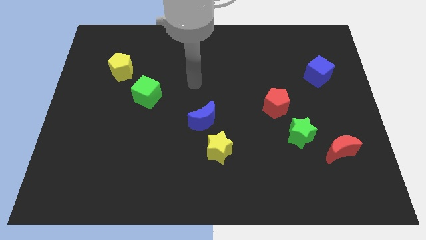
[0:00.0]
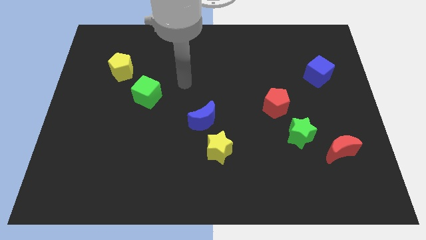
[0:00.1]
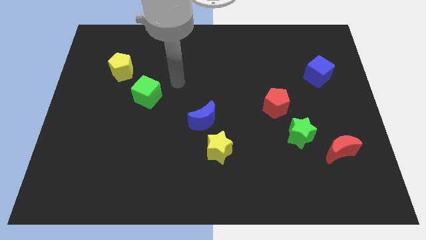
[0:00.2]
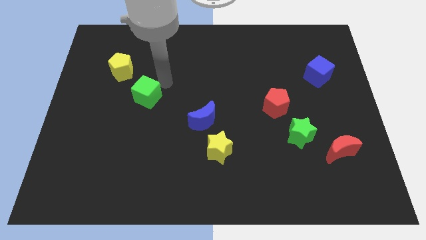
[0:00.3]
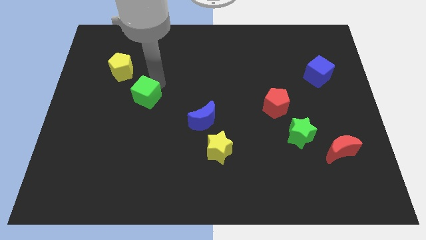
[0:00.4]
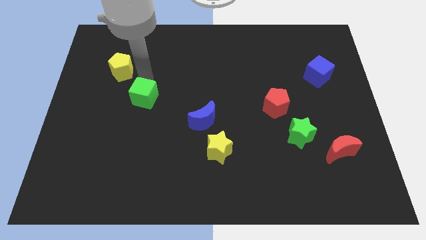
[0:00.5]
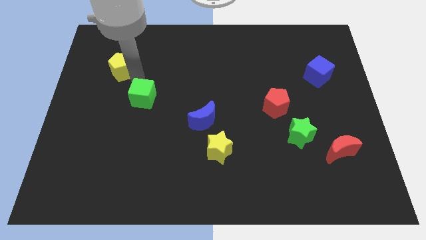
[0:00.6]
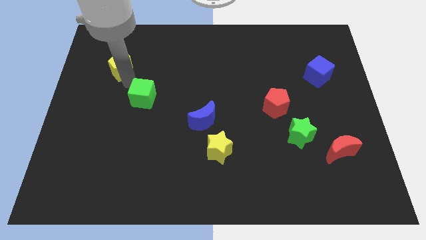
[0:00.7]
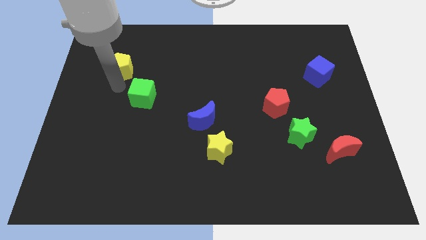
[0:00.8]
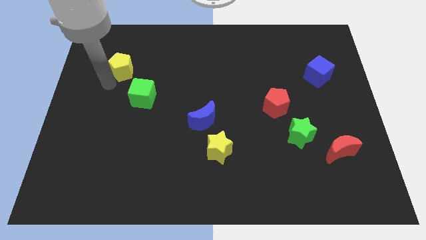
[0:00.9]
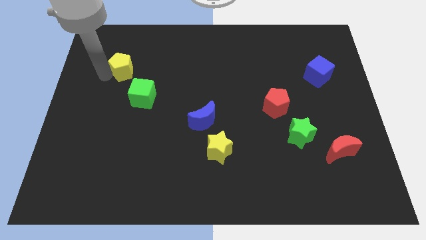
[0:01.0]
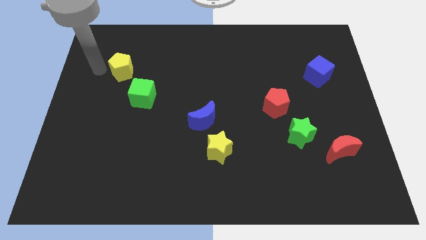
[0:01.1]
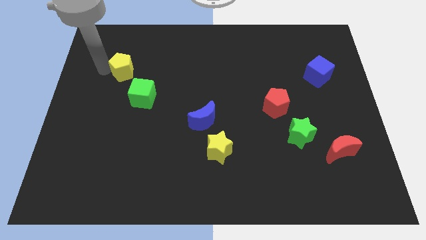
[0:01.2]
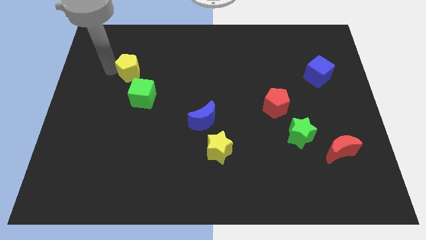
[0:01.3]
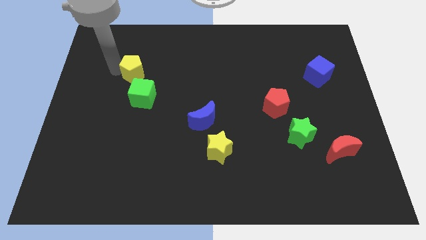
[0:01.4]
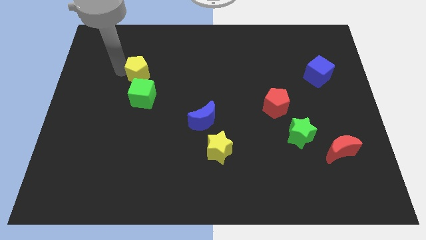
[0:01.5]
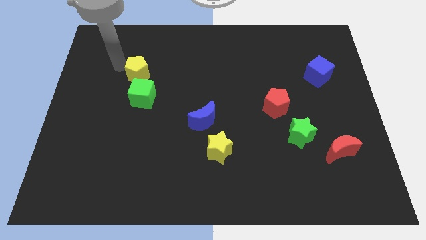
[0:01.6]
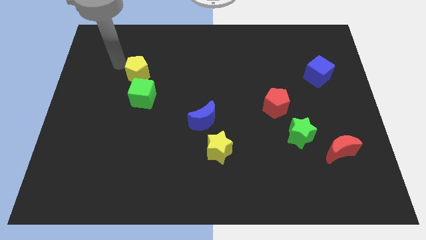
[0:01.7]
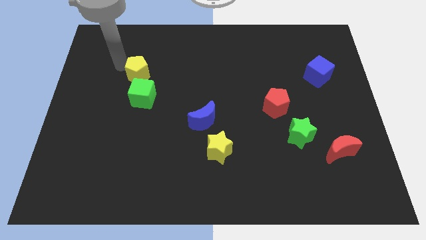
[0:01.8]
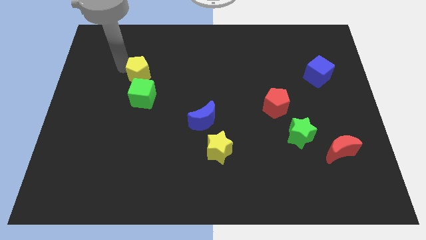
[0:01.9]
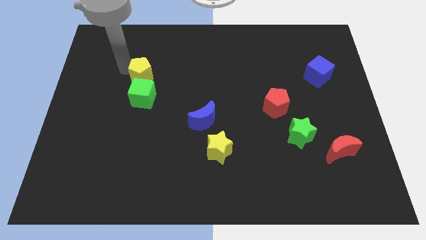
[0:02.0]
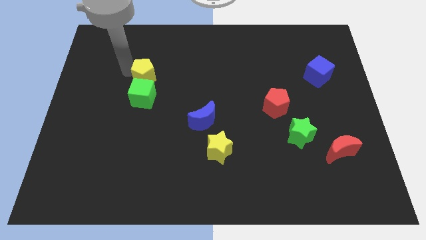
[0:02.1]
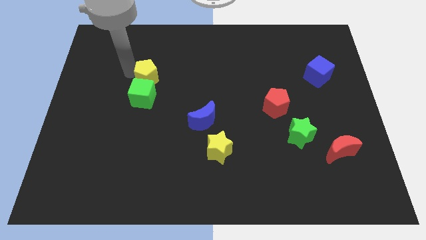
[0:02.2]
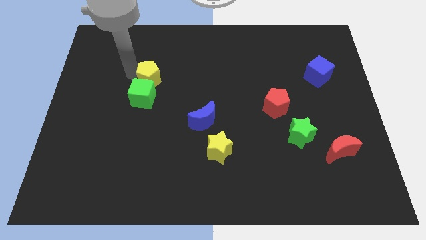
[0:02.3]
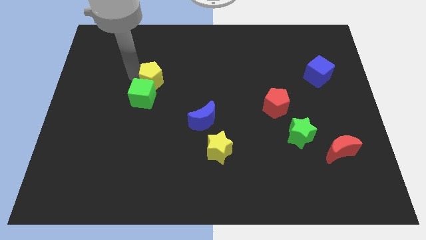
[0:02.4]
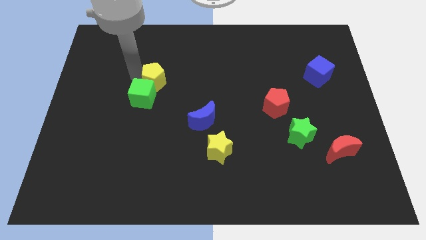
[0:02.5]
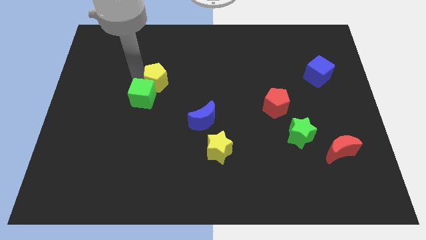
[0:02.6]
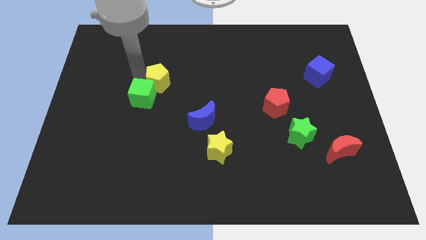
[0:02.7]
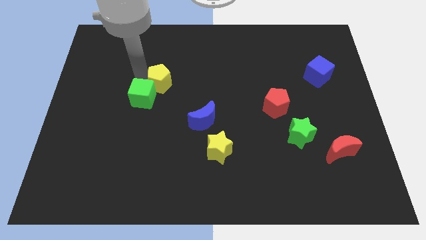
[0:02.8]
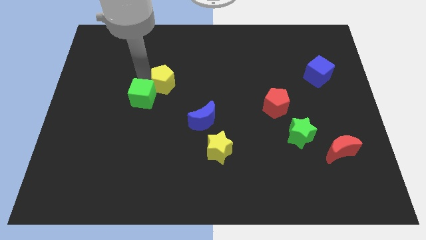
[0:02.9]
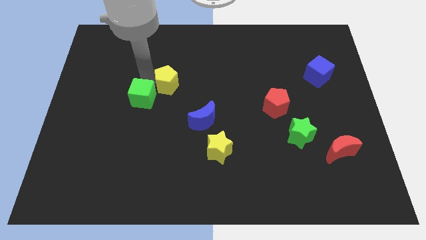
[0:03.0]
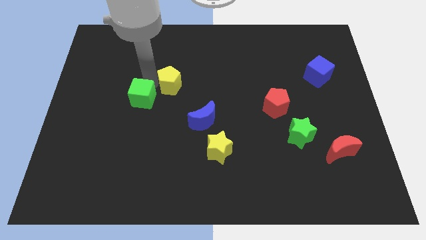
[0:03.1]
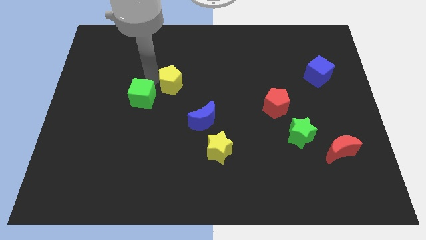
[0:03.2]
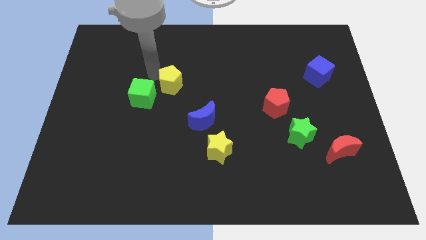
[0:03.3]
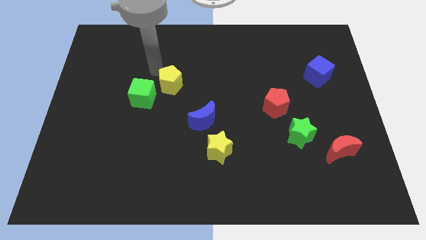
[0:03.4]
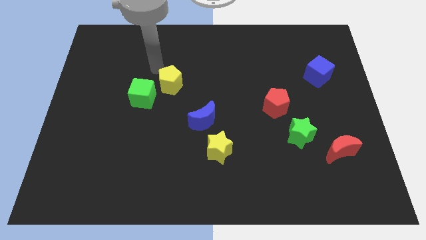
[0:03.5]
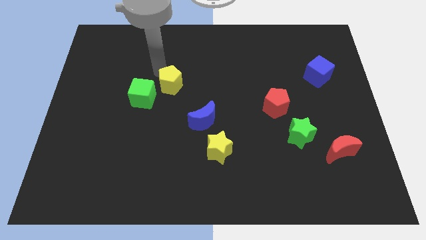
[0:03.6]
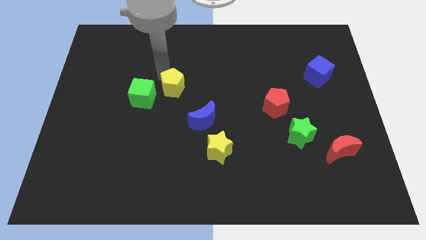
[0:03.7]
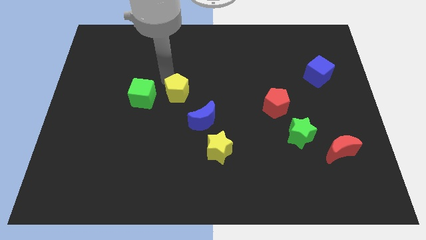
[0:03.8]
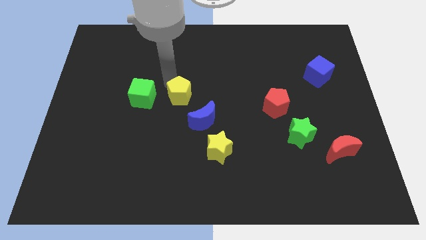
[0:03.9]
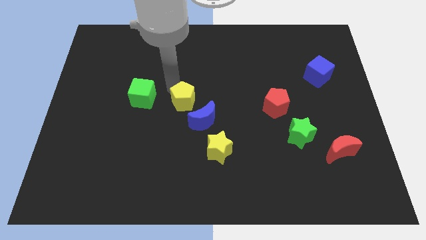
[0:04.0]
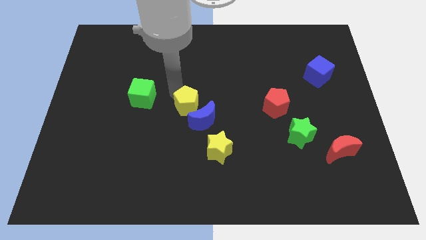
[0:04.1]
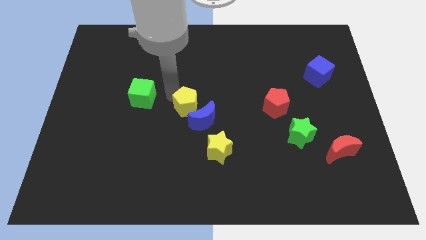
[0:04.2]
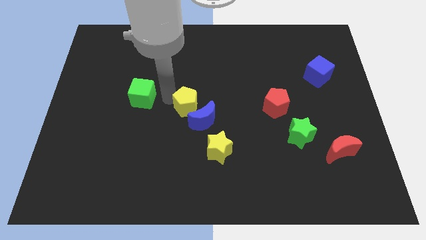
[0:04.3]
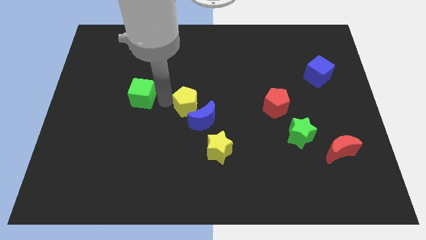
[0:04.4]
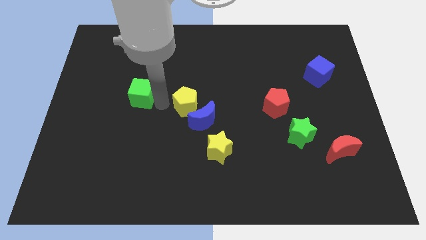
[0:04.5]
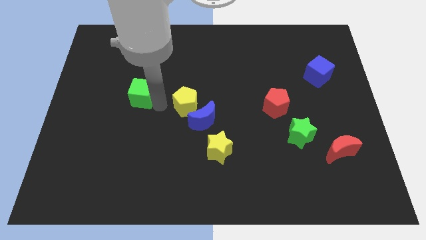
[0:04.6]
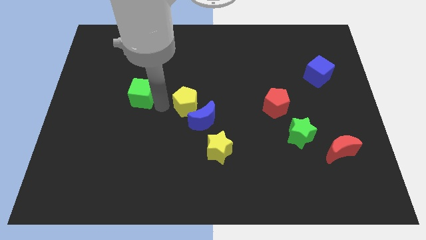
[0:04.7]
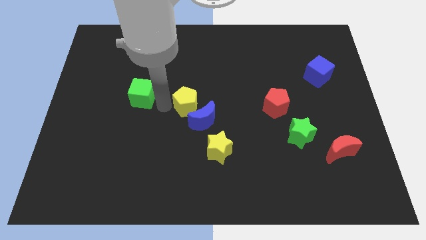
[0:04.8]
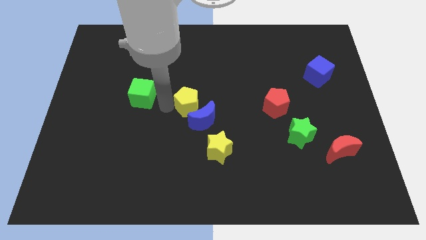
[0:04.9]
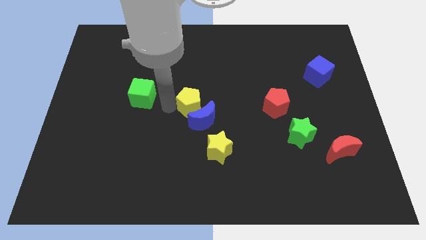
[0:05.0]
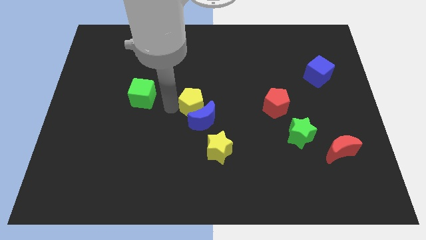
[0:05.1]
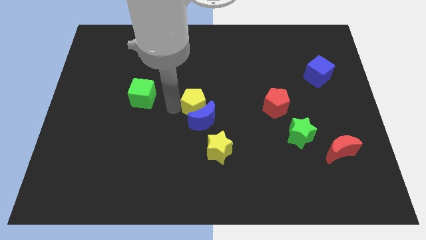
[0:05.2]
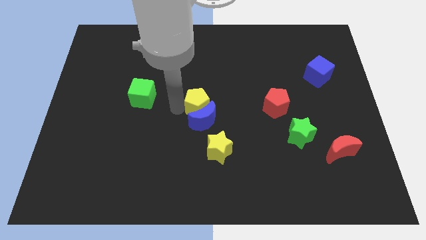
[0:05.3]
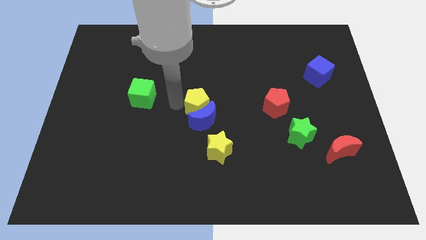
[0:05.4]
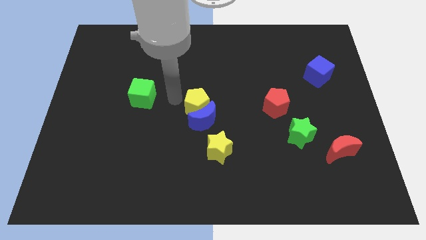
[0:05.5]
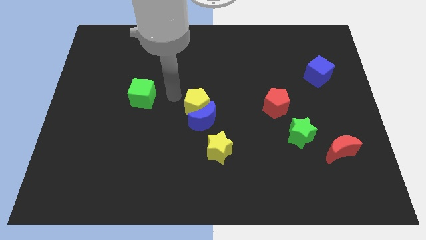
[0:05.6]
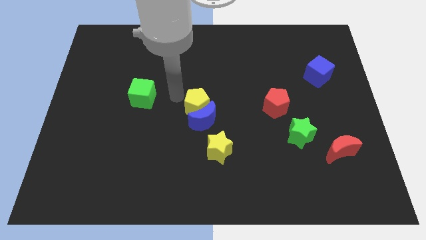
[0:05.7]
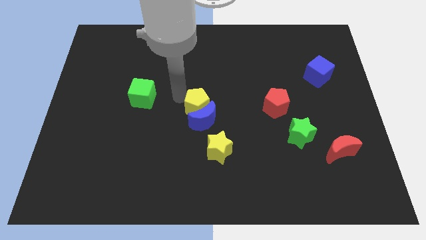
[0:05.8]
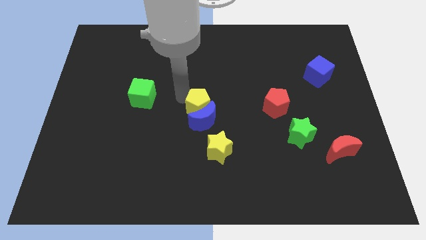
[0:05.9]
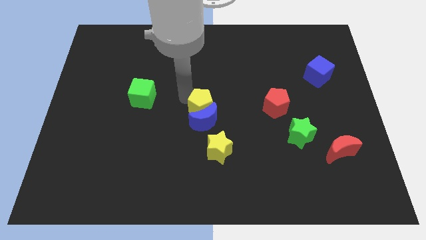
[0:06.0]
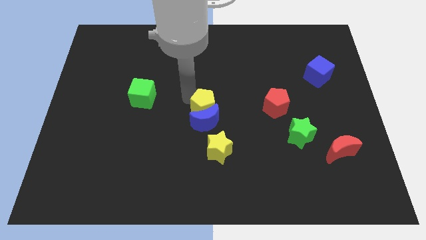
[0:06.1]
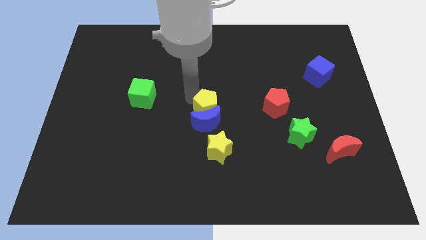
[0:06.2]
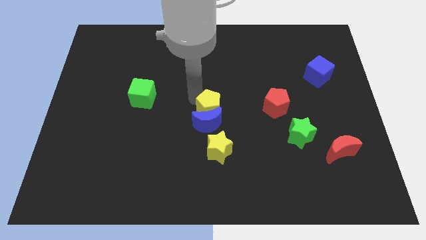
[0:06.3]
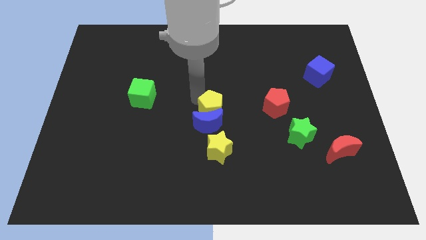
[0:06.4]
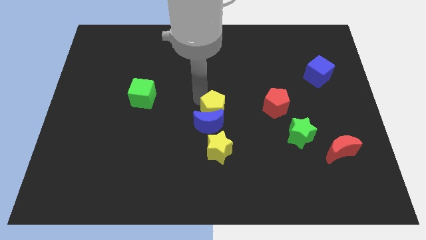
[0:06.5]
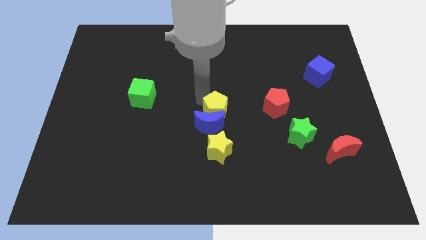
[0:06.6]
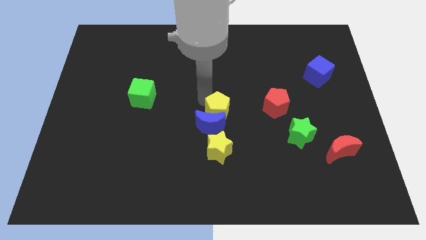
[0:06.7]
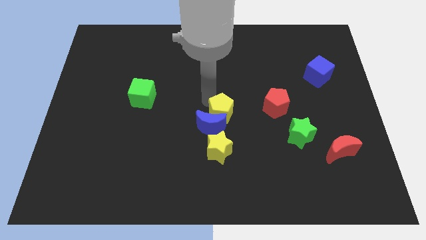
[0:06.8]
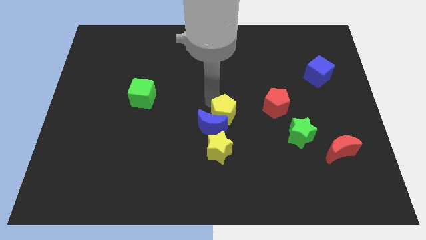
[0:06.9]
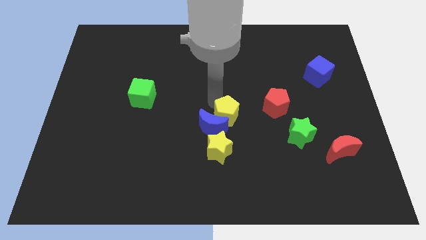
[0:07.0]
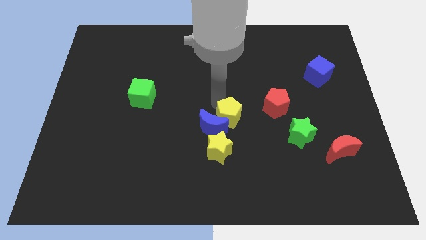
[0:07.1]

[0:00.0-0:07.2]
slide the yellow pentagon to the top right side of the yellow star
